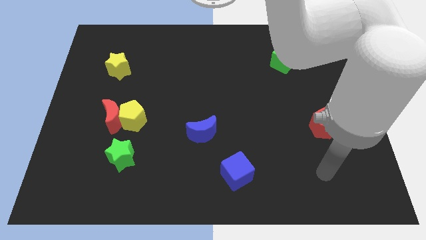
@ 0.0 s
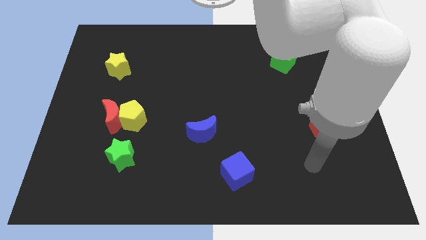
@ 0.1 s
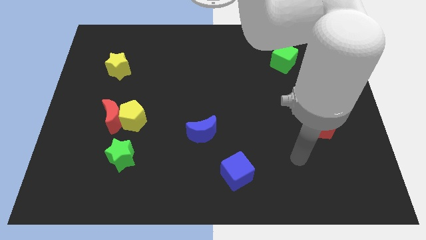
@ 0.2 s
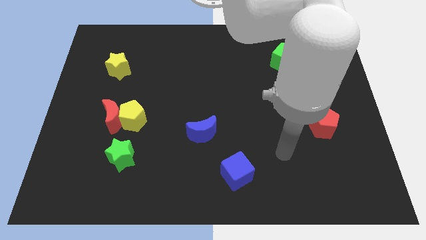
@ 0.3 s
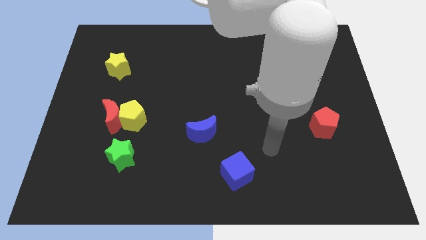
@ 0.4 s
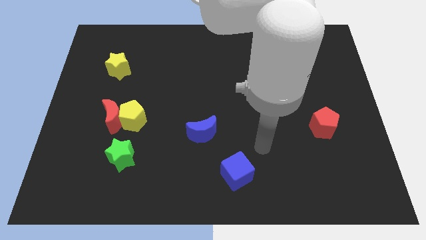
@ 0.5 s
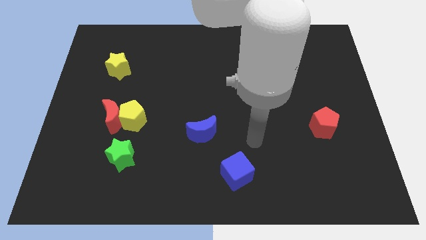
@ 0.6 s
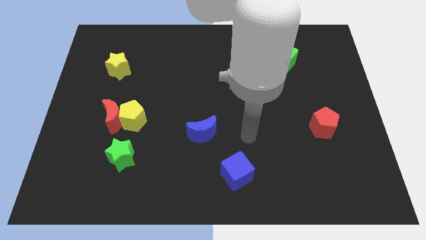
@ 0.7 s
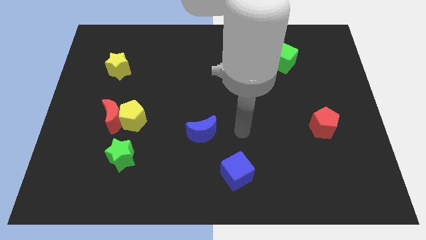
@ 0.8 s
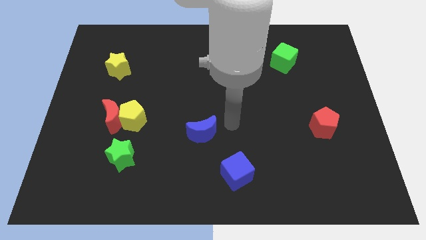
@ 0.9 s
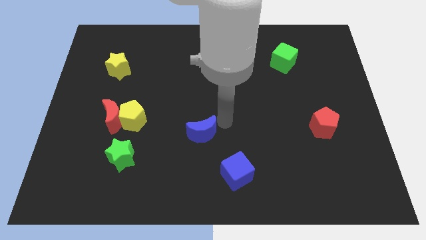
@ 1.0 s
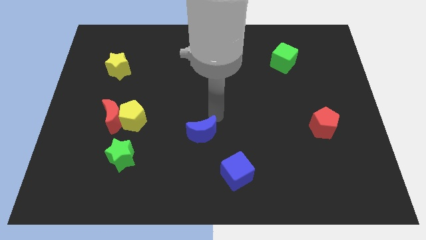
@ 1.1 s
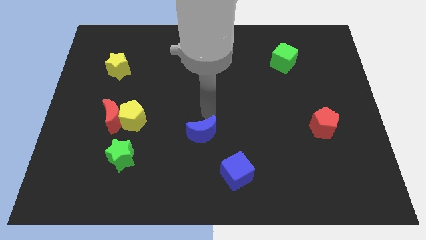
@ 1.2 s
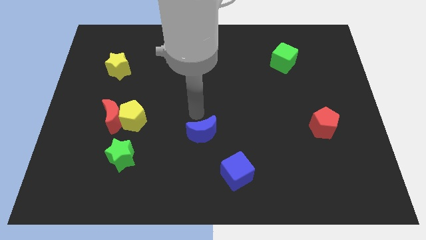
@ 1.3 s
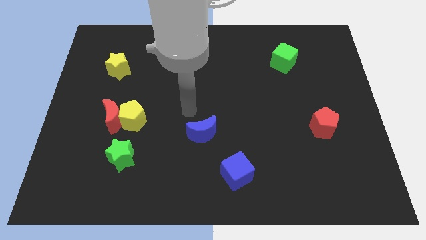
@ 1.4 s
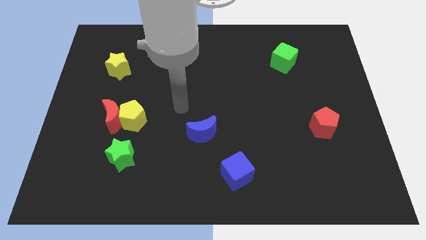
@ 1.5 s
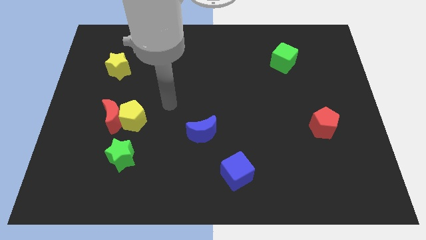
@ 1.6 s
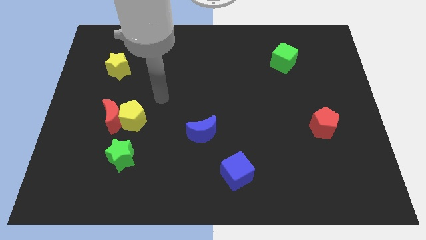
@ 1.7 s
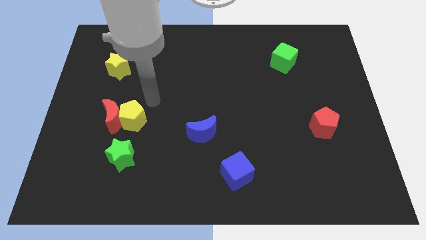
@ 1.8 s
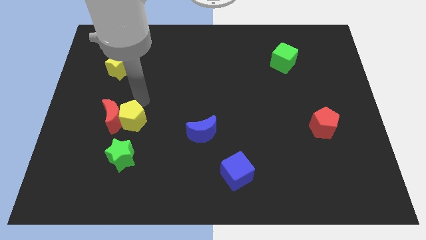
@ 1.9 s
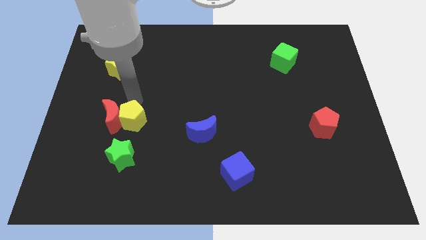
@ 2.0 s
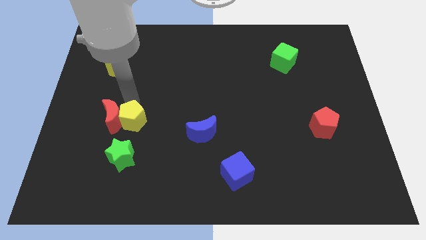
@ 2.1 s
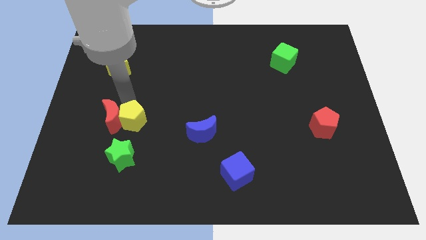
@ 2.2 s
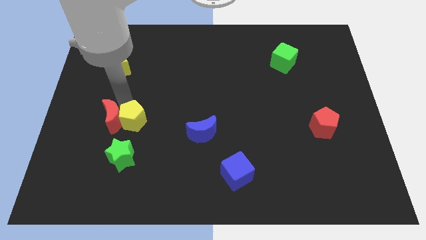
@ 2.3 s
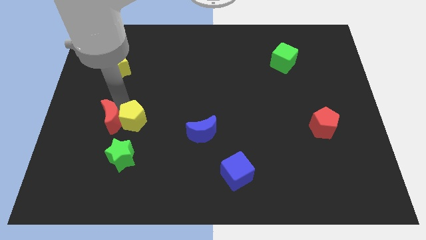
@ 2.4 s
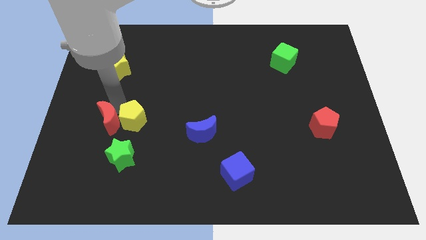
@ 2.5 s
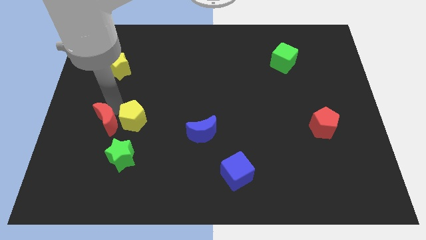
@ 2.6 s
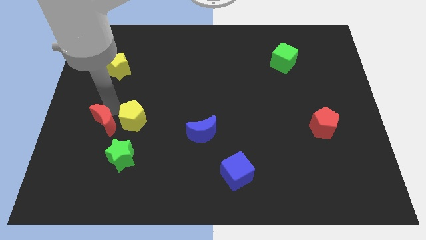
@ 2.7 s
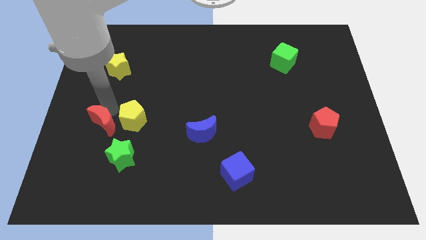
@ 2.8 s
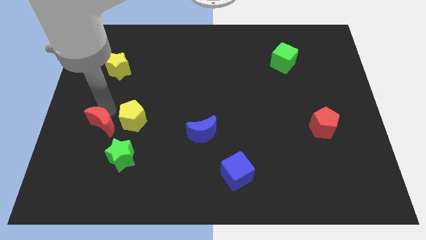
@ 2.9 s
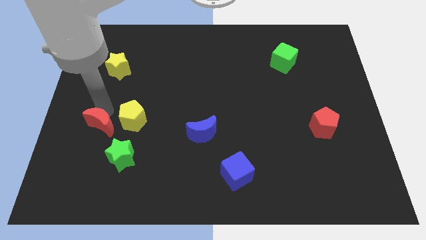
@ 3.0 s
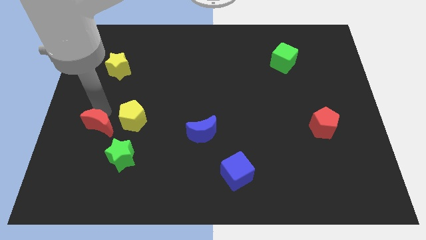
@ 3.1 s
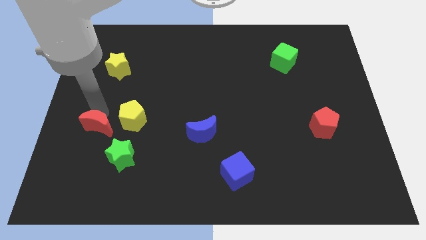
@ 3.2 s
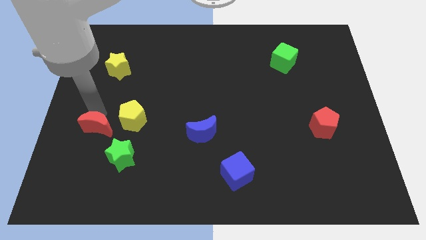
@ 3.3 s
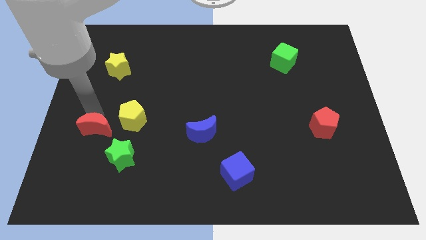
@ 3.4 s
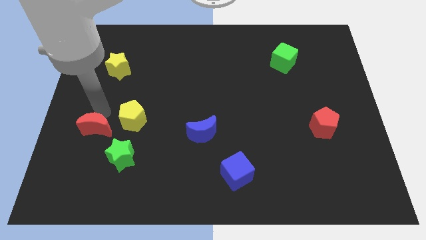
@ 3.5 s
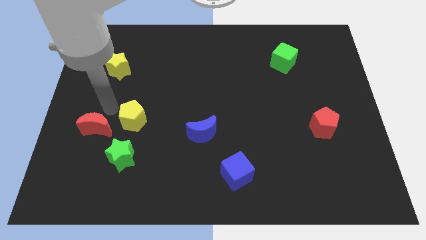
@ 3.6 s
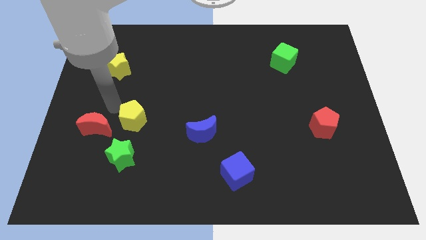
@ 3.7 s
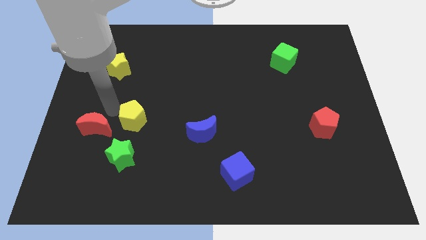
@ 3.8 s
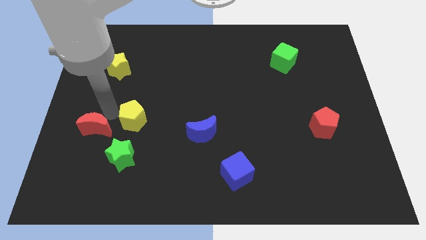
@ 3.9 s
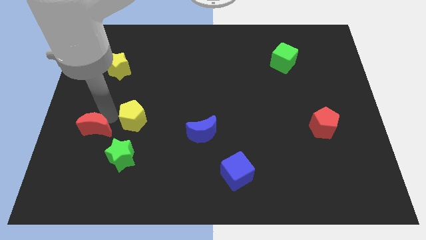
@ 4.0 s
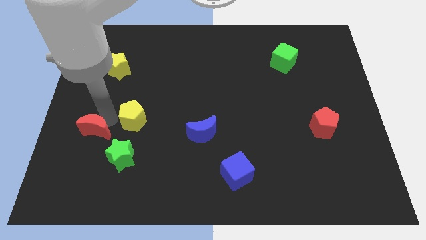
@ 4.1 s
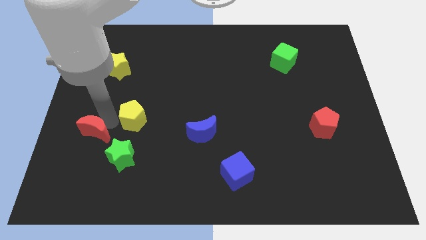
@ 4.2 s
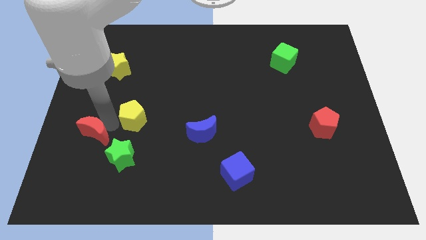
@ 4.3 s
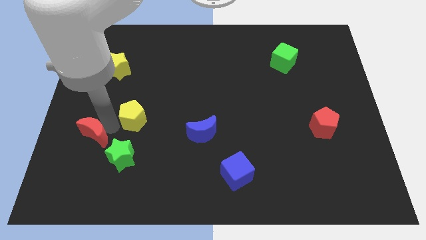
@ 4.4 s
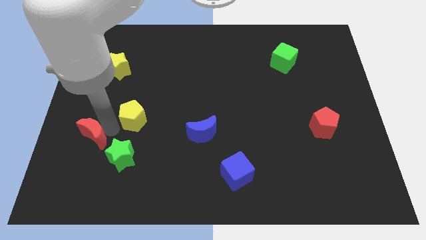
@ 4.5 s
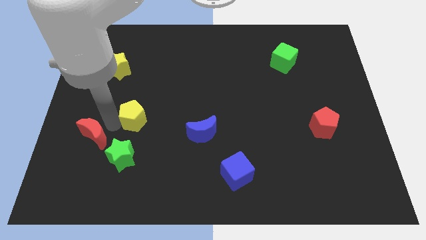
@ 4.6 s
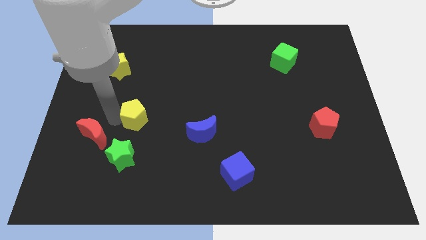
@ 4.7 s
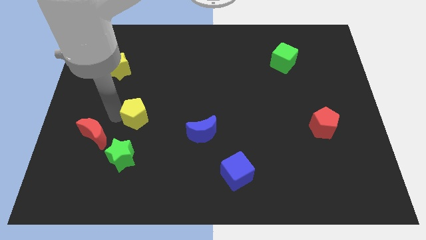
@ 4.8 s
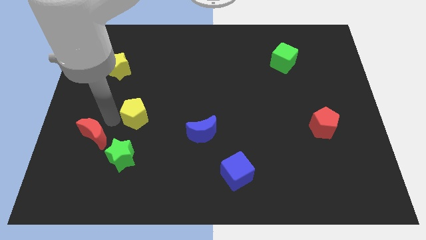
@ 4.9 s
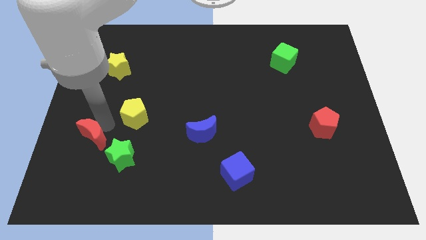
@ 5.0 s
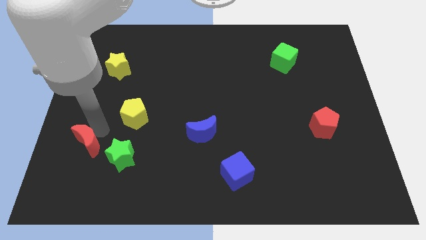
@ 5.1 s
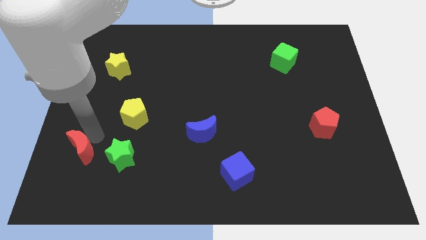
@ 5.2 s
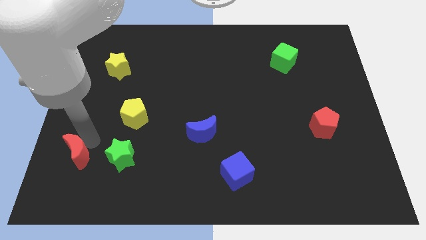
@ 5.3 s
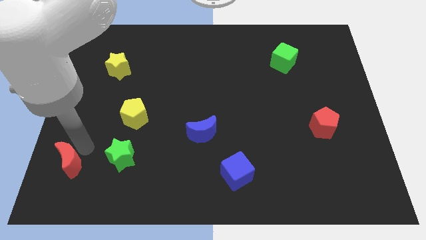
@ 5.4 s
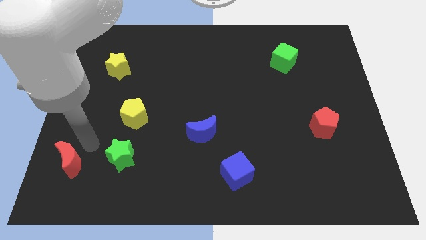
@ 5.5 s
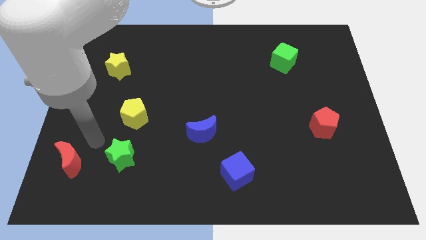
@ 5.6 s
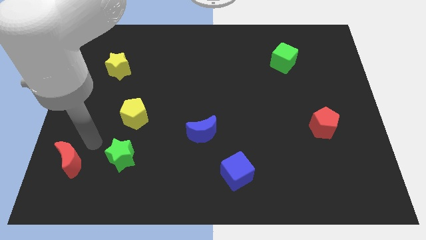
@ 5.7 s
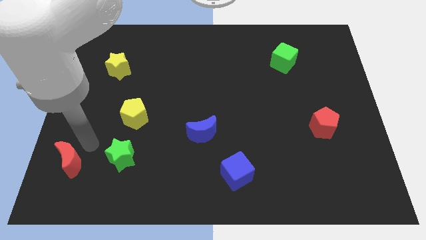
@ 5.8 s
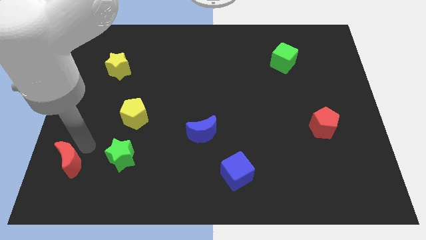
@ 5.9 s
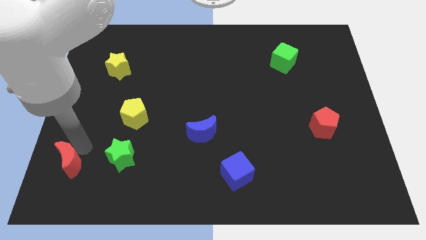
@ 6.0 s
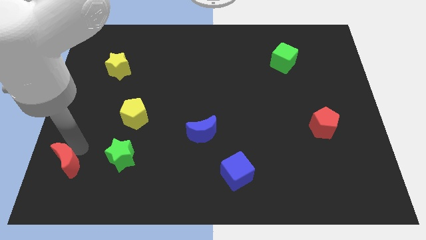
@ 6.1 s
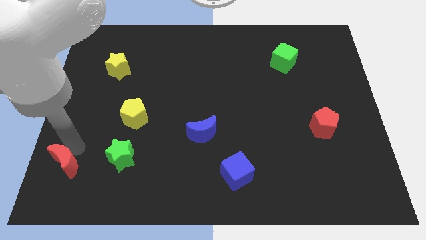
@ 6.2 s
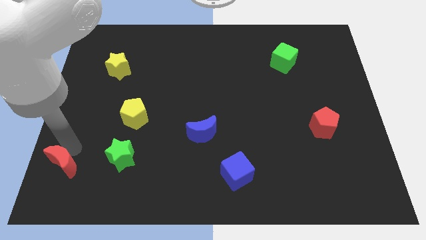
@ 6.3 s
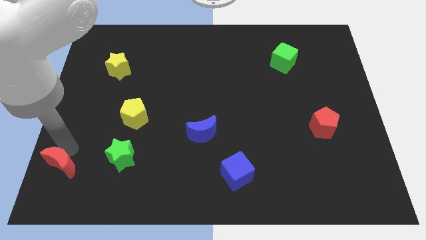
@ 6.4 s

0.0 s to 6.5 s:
move the red moon to the bottom left
